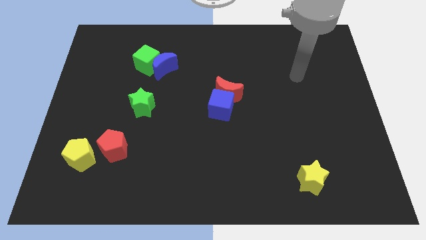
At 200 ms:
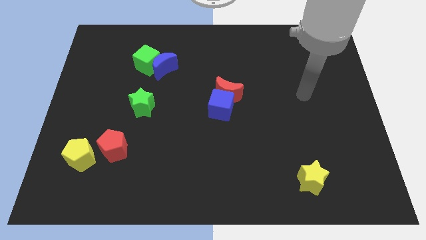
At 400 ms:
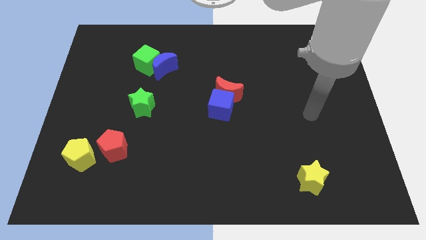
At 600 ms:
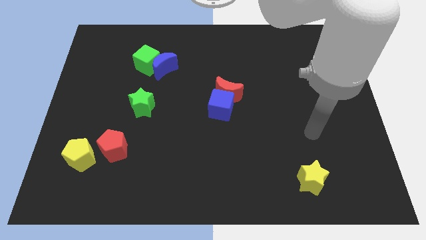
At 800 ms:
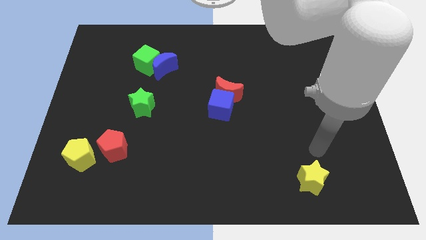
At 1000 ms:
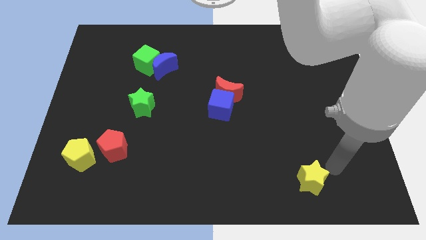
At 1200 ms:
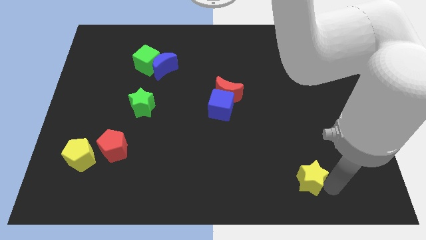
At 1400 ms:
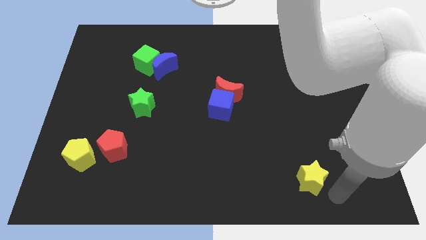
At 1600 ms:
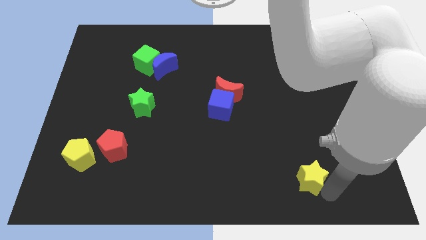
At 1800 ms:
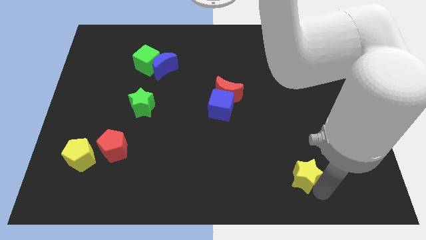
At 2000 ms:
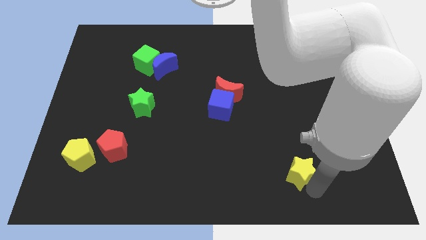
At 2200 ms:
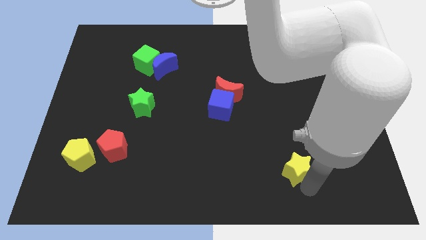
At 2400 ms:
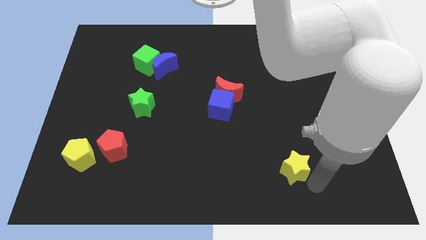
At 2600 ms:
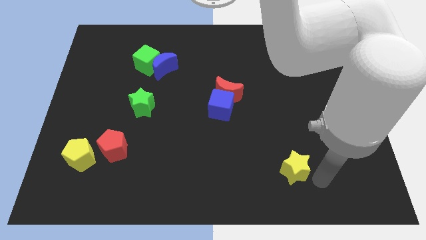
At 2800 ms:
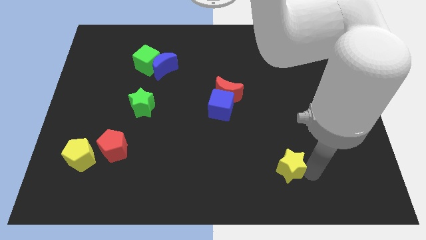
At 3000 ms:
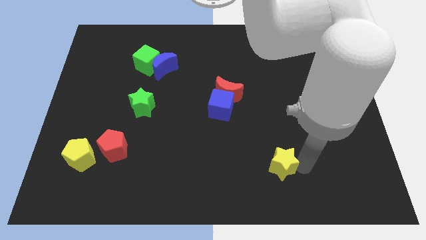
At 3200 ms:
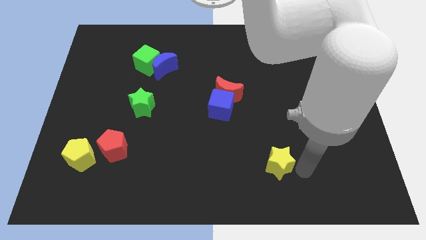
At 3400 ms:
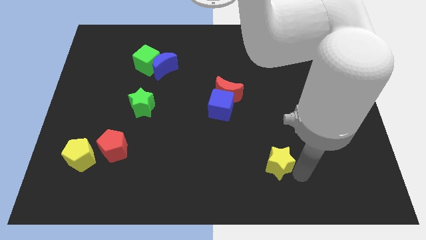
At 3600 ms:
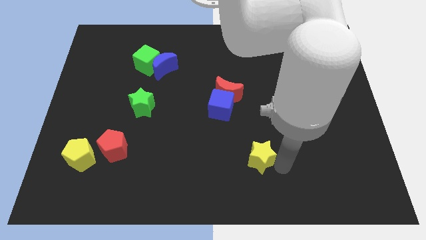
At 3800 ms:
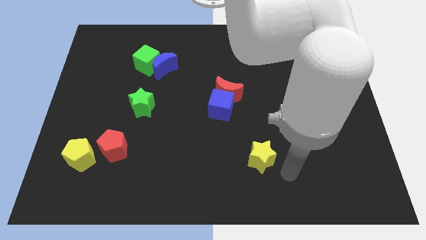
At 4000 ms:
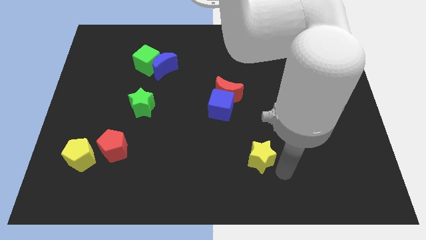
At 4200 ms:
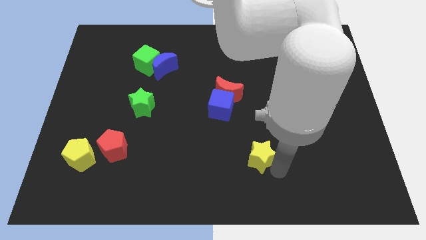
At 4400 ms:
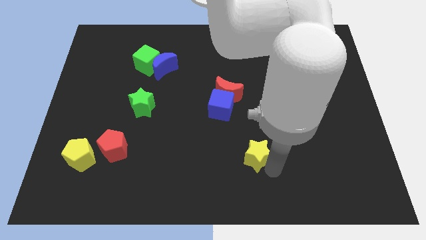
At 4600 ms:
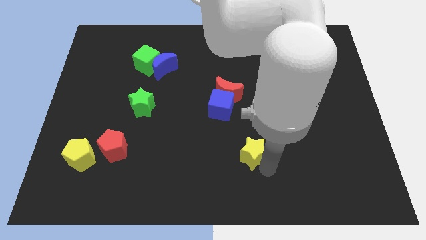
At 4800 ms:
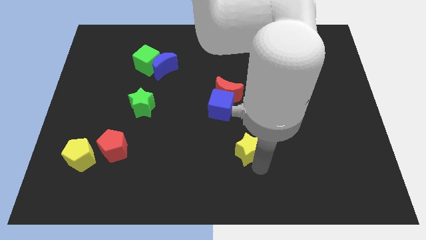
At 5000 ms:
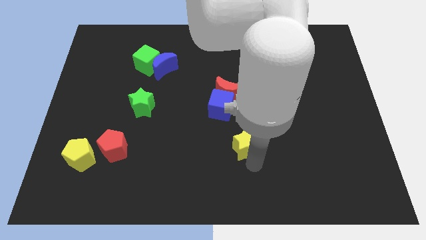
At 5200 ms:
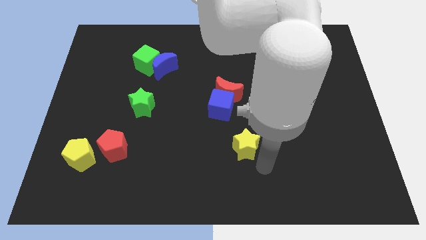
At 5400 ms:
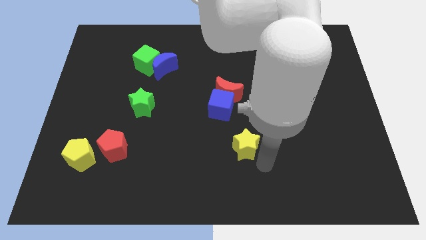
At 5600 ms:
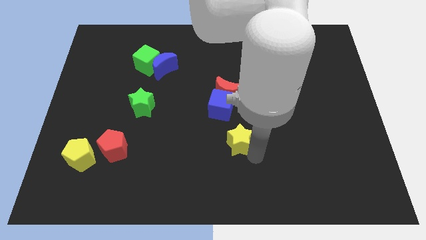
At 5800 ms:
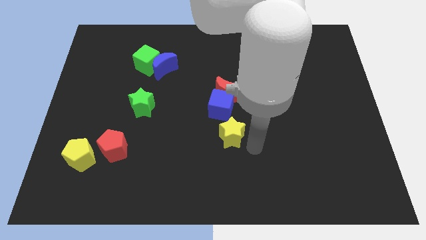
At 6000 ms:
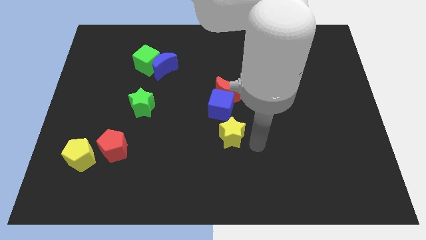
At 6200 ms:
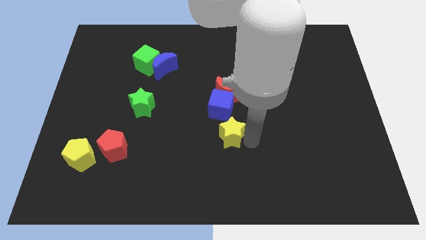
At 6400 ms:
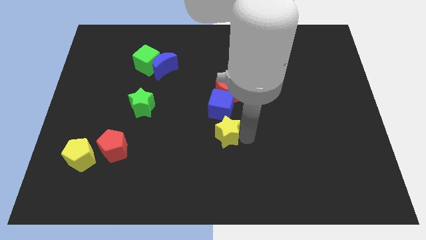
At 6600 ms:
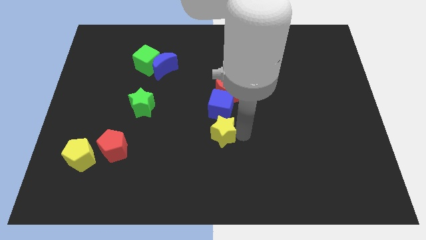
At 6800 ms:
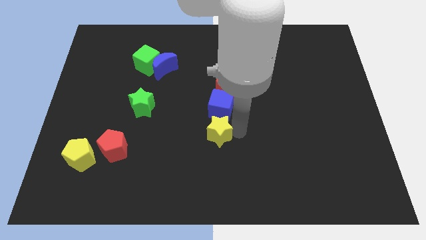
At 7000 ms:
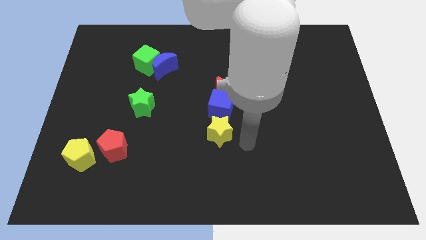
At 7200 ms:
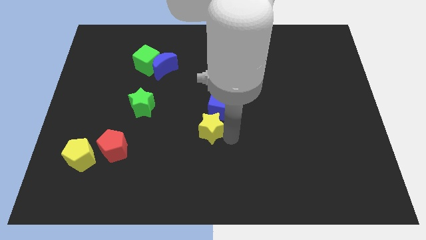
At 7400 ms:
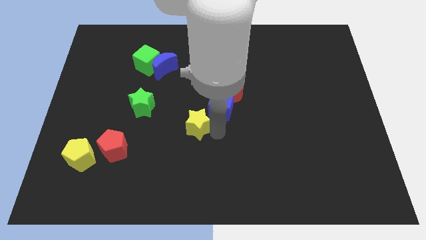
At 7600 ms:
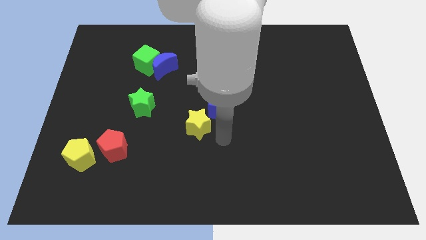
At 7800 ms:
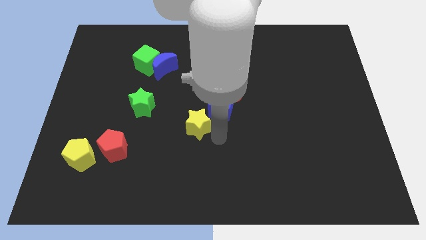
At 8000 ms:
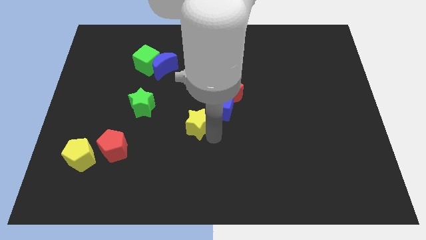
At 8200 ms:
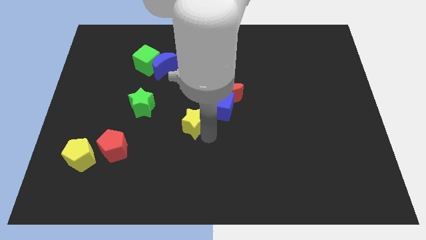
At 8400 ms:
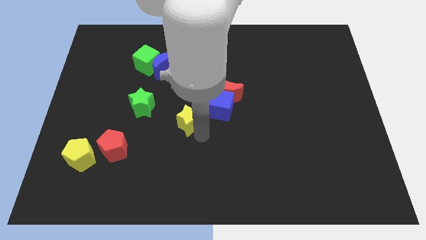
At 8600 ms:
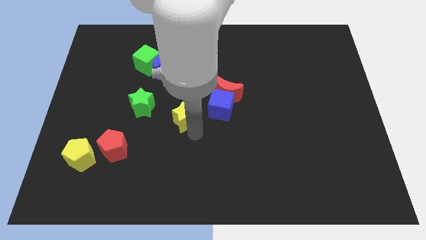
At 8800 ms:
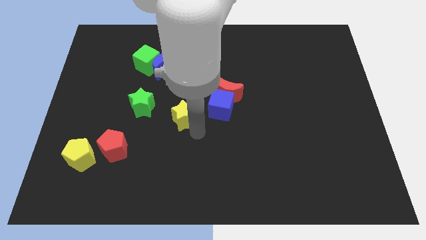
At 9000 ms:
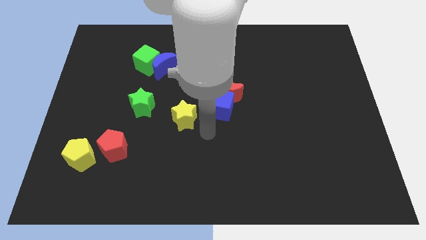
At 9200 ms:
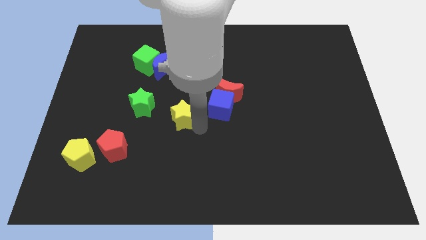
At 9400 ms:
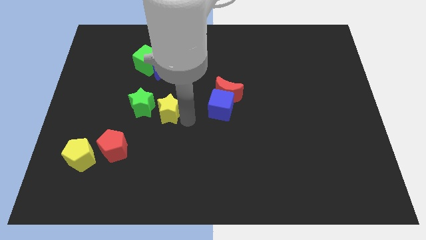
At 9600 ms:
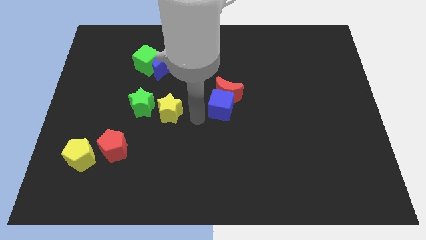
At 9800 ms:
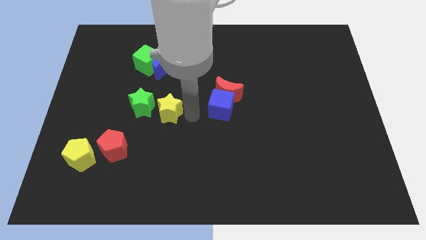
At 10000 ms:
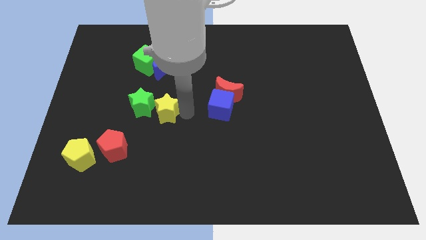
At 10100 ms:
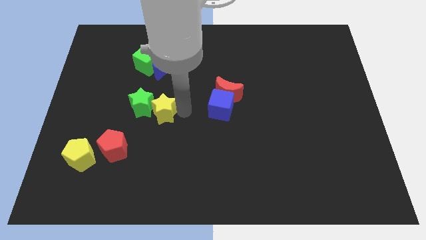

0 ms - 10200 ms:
put the yellow star towards the green star

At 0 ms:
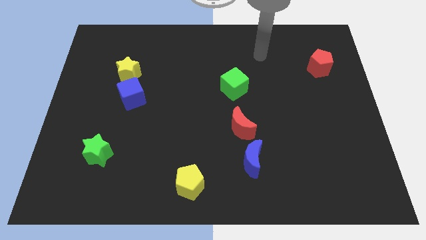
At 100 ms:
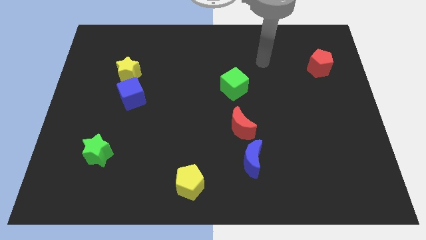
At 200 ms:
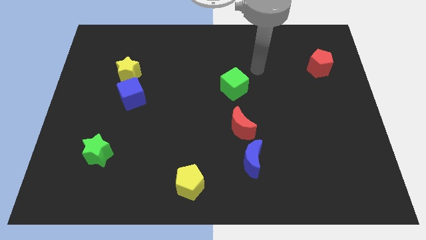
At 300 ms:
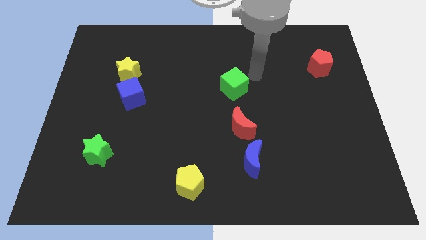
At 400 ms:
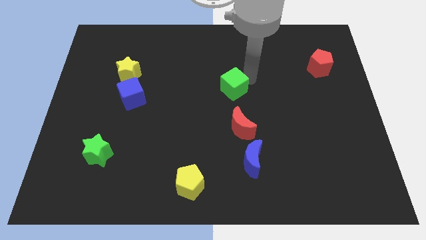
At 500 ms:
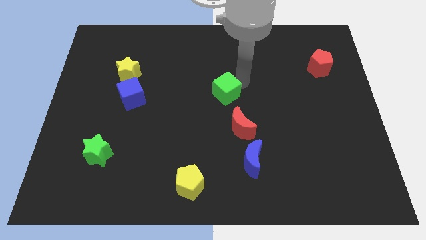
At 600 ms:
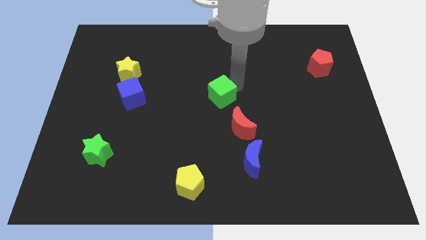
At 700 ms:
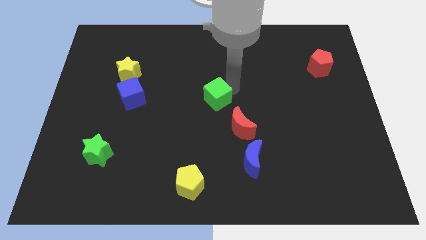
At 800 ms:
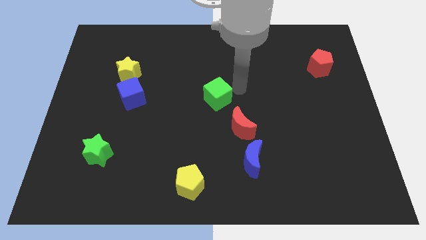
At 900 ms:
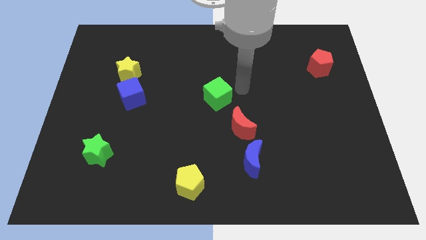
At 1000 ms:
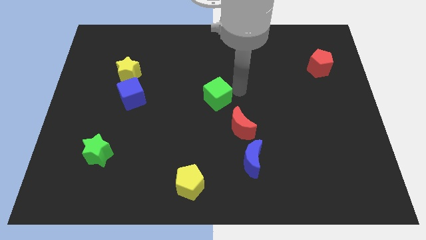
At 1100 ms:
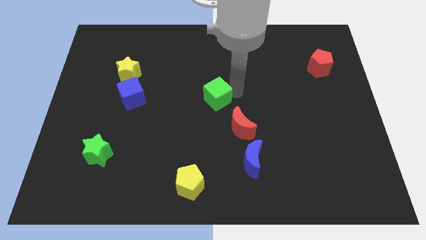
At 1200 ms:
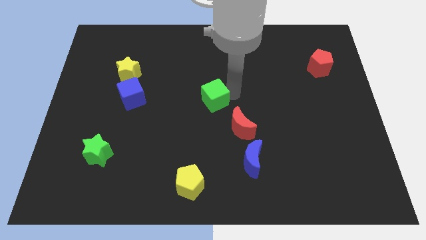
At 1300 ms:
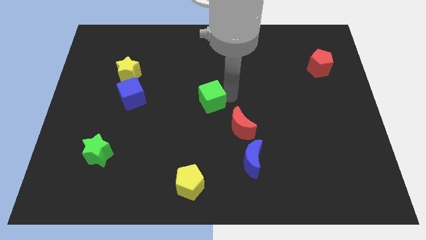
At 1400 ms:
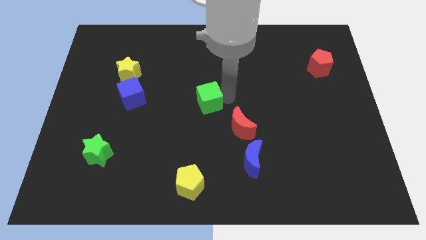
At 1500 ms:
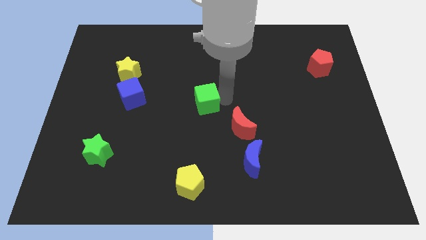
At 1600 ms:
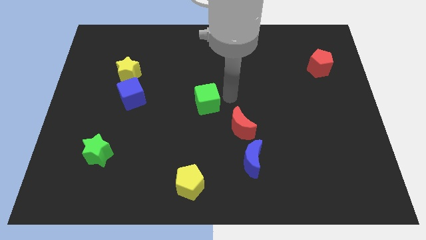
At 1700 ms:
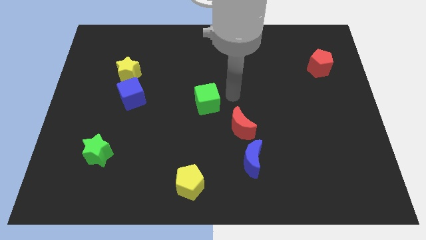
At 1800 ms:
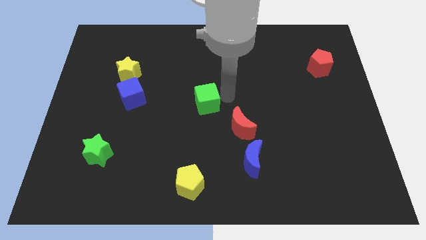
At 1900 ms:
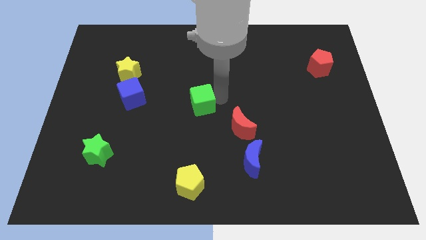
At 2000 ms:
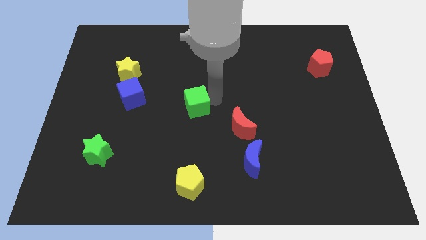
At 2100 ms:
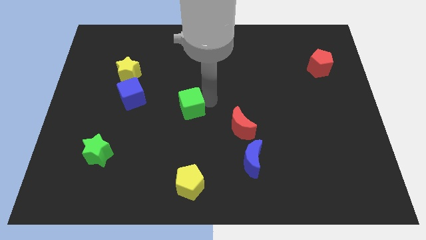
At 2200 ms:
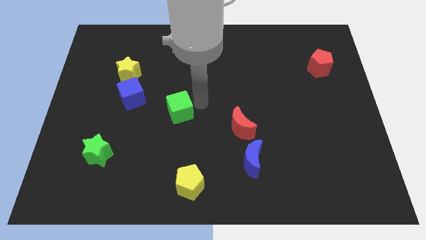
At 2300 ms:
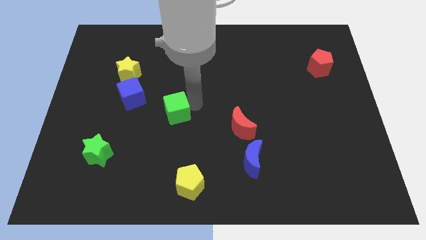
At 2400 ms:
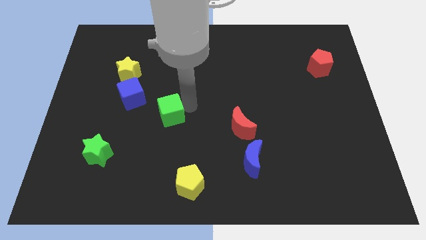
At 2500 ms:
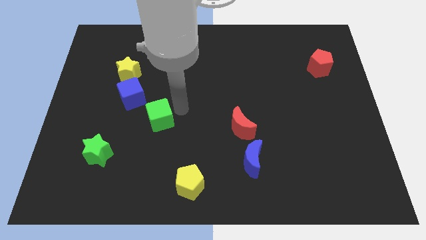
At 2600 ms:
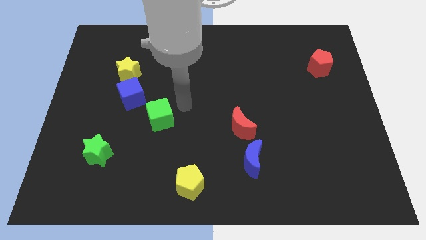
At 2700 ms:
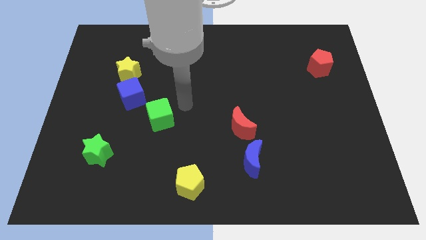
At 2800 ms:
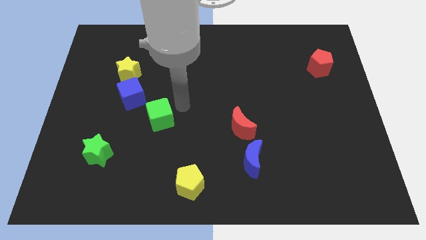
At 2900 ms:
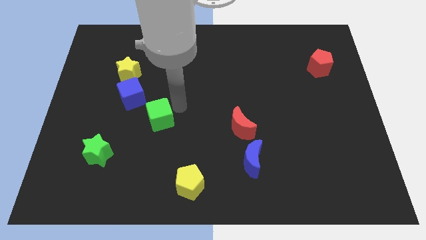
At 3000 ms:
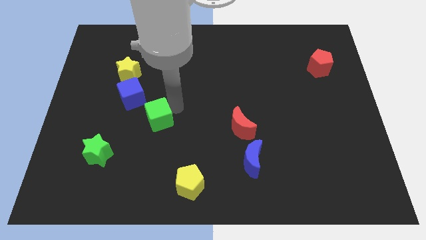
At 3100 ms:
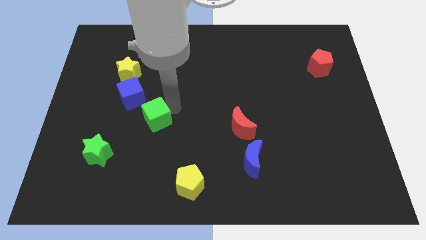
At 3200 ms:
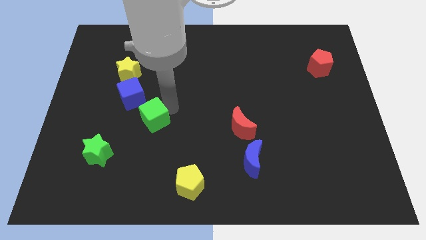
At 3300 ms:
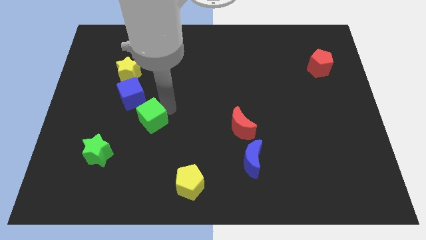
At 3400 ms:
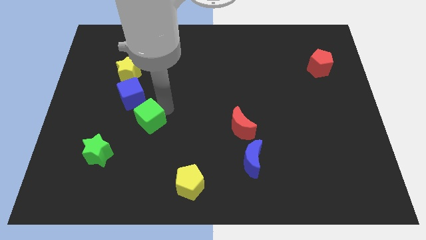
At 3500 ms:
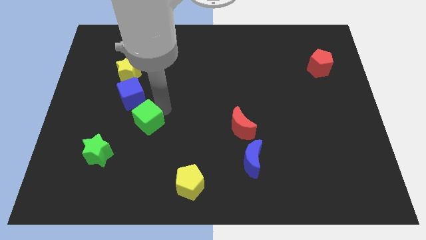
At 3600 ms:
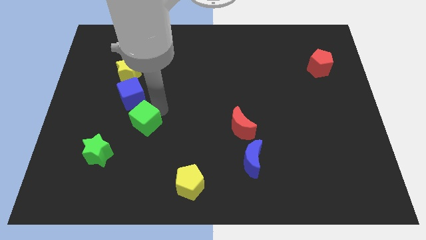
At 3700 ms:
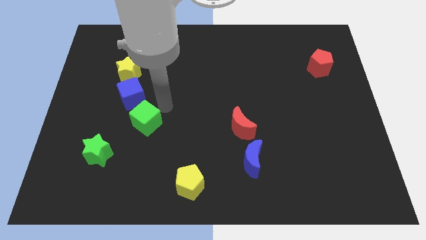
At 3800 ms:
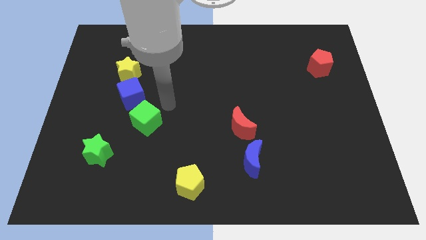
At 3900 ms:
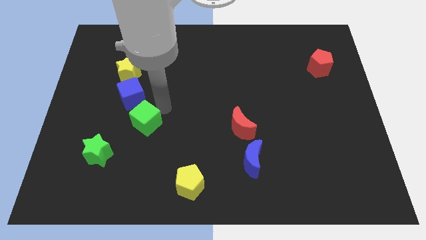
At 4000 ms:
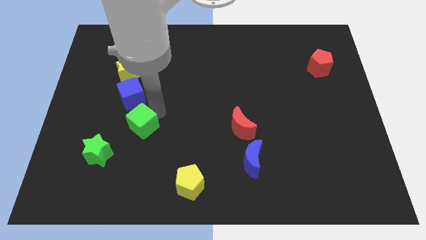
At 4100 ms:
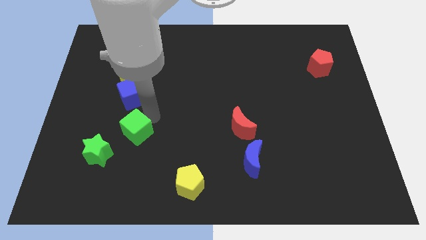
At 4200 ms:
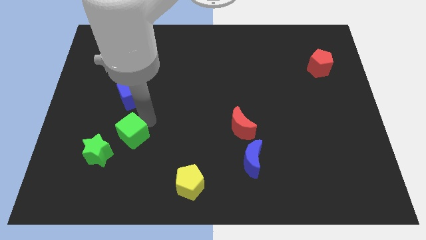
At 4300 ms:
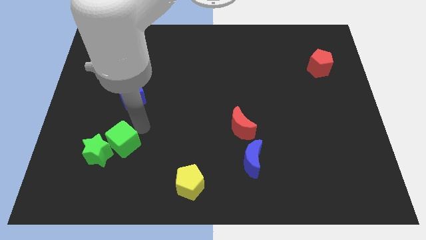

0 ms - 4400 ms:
move the green cube to the green star
